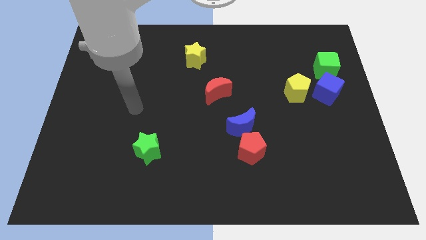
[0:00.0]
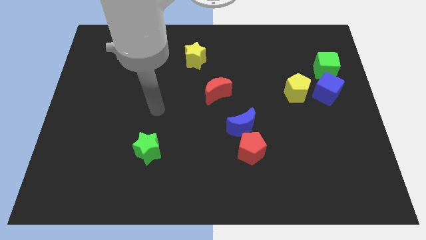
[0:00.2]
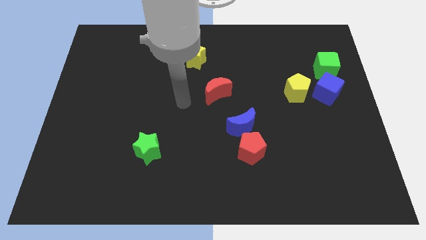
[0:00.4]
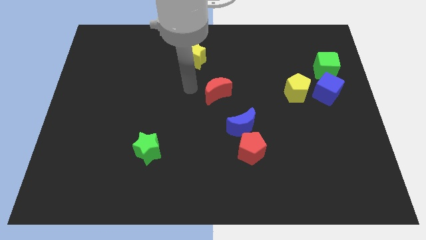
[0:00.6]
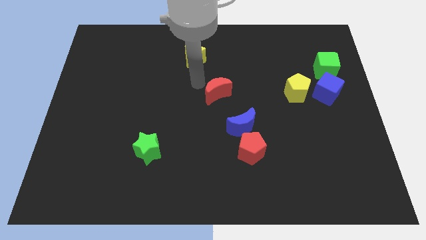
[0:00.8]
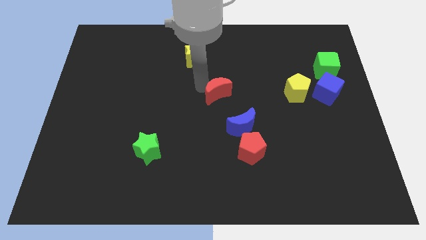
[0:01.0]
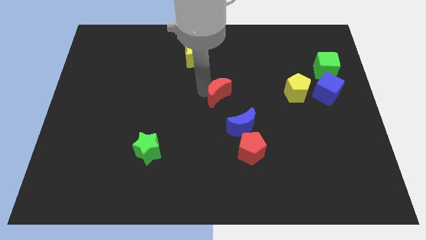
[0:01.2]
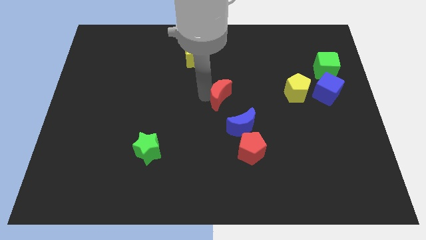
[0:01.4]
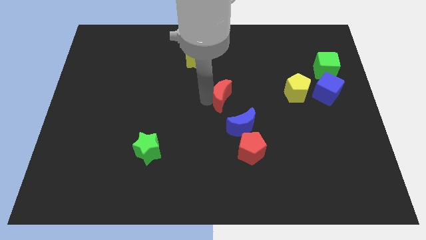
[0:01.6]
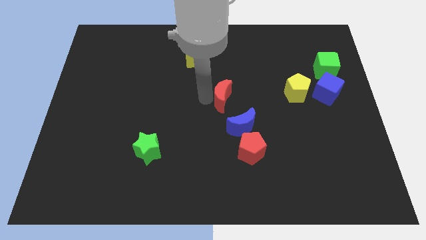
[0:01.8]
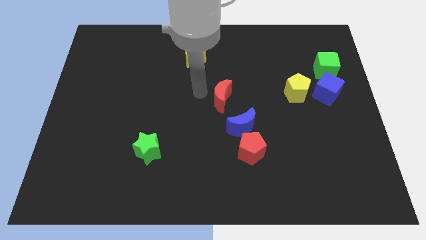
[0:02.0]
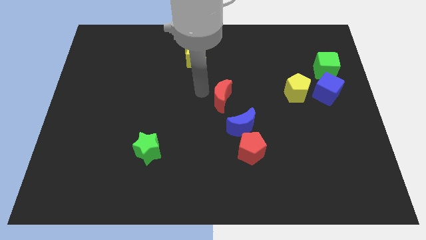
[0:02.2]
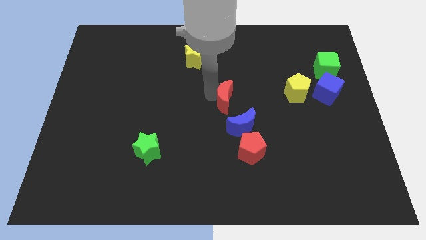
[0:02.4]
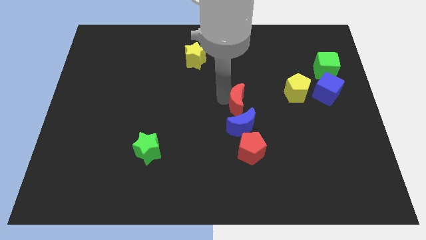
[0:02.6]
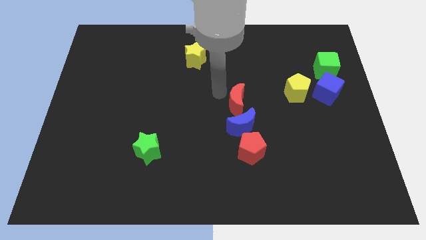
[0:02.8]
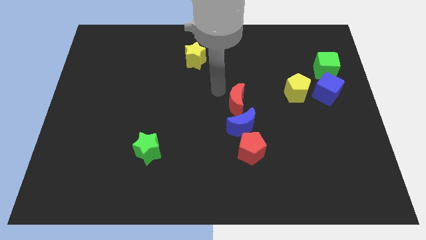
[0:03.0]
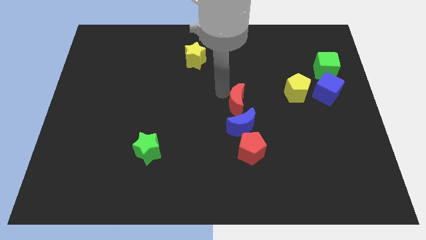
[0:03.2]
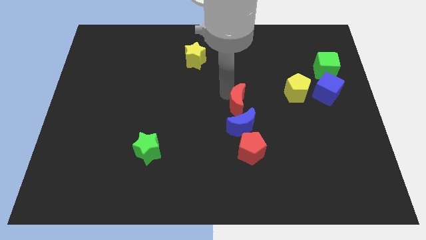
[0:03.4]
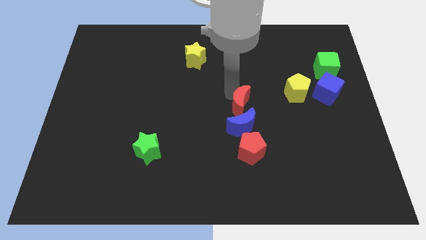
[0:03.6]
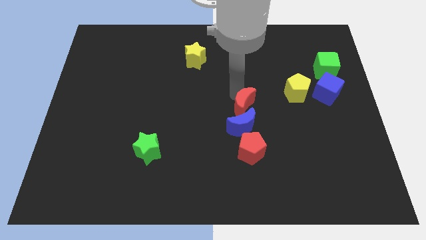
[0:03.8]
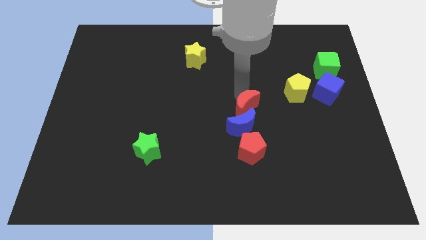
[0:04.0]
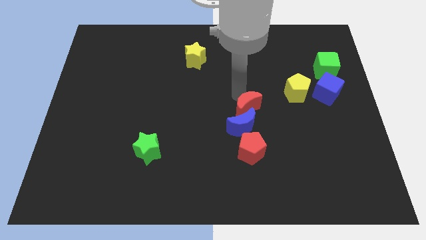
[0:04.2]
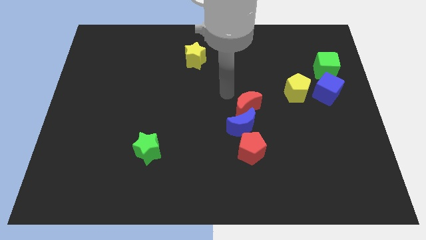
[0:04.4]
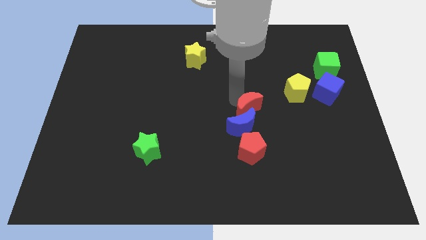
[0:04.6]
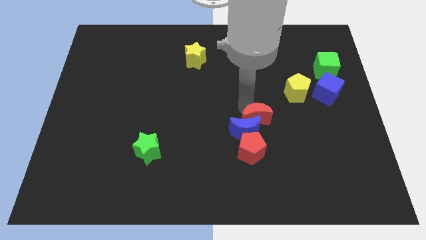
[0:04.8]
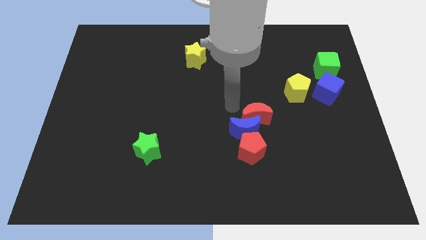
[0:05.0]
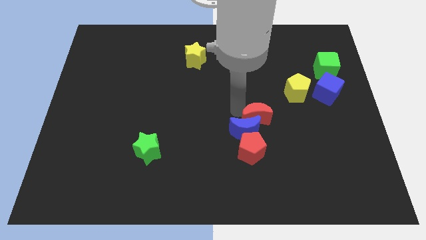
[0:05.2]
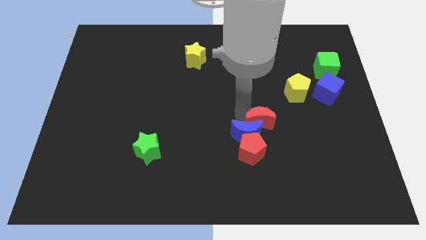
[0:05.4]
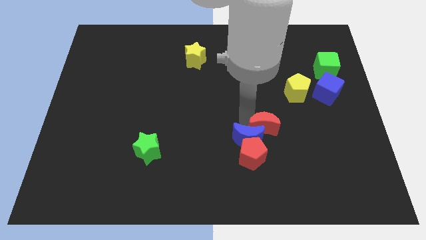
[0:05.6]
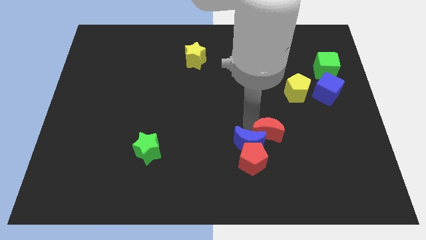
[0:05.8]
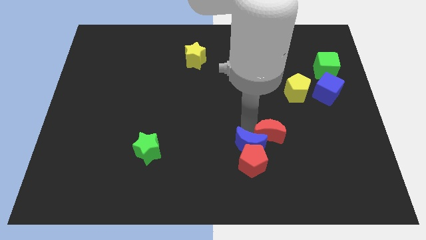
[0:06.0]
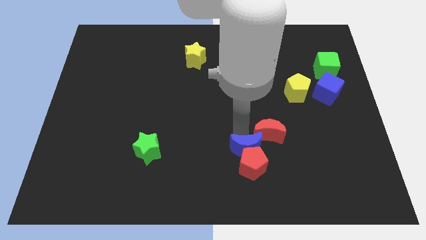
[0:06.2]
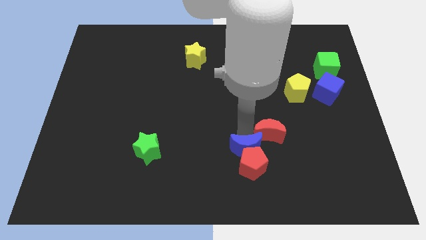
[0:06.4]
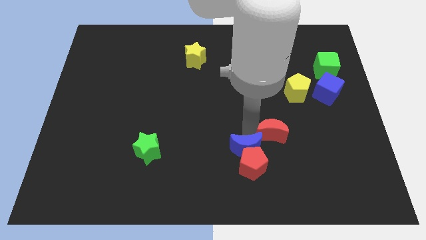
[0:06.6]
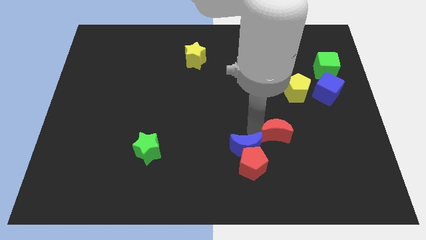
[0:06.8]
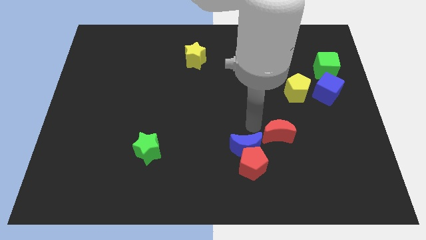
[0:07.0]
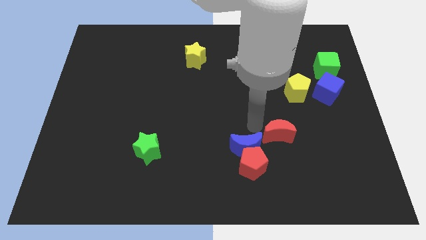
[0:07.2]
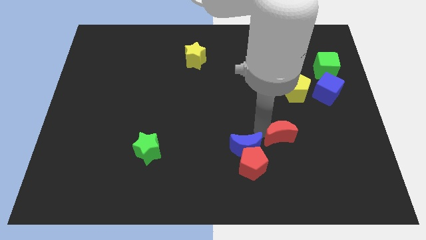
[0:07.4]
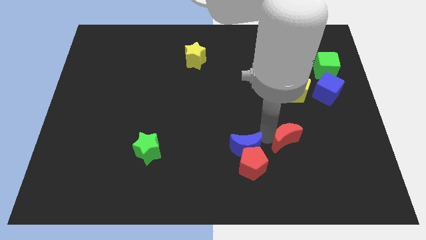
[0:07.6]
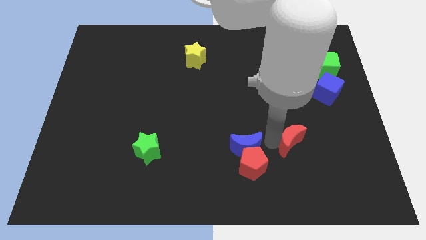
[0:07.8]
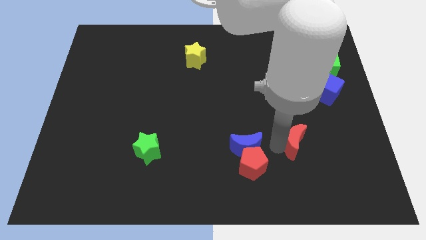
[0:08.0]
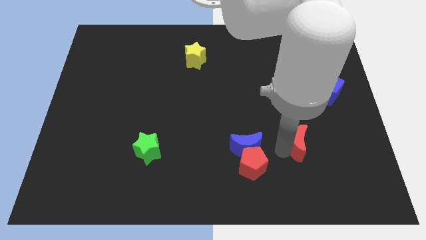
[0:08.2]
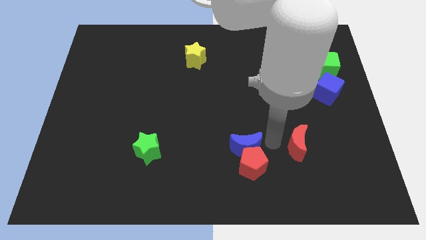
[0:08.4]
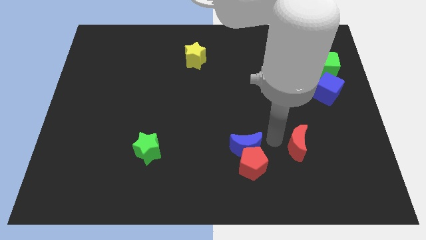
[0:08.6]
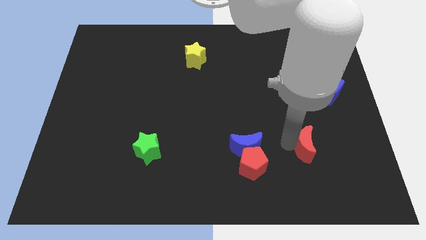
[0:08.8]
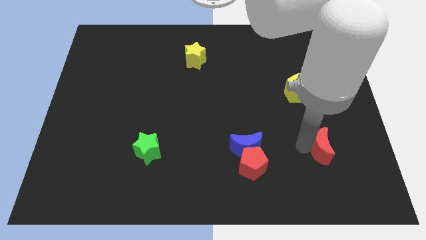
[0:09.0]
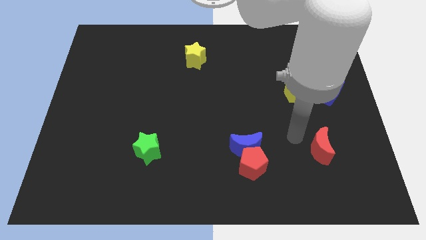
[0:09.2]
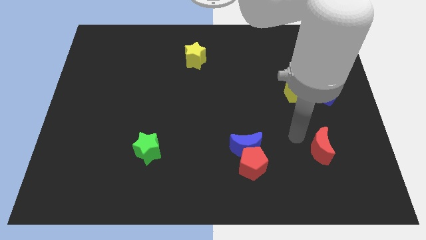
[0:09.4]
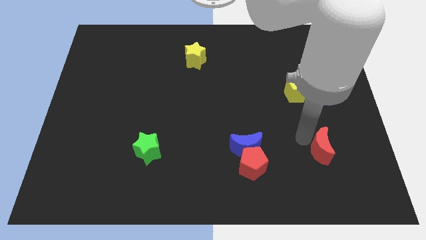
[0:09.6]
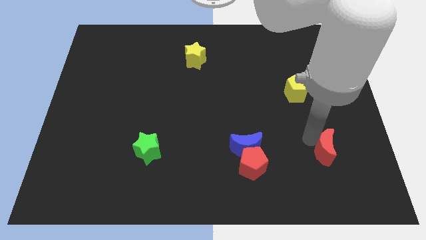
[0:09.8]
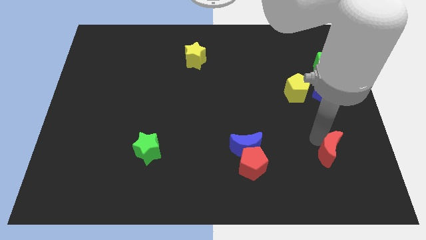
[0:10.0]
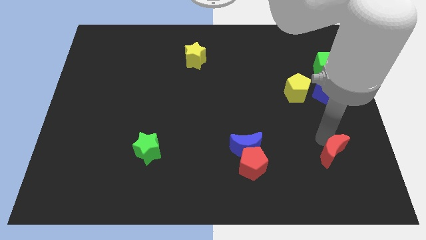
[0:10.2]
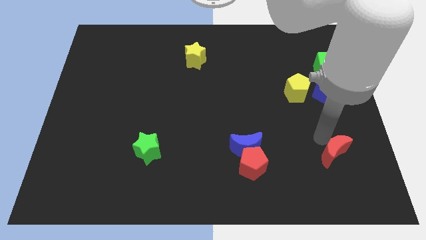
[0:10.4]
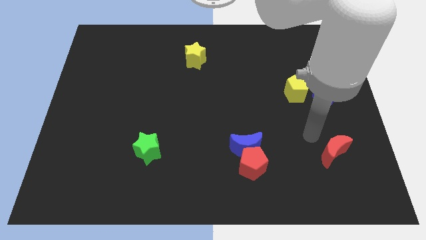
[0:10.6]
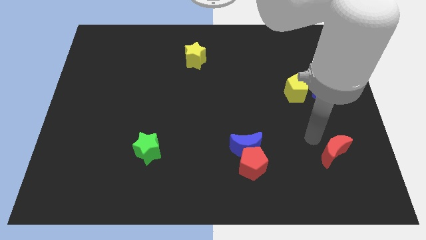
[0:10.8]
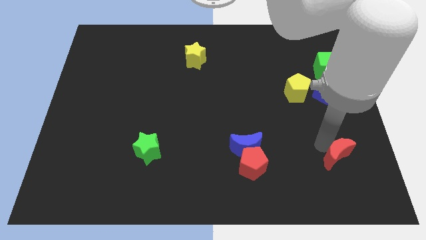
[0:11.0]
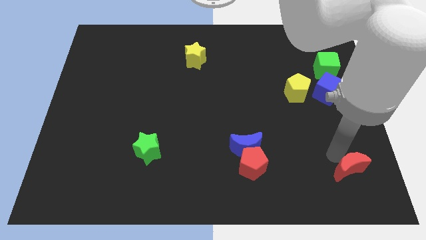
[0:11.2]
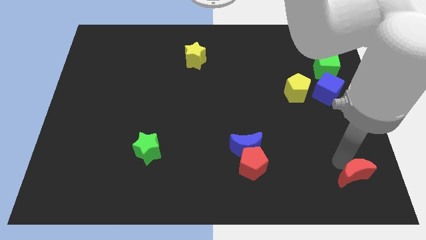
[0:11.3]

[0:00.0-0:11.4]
put the red moon to the bottom right of the board

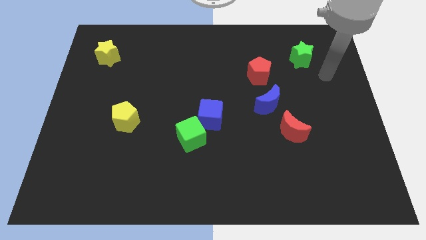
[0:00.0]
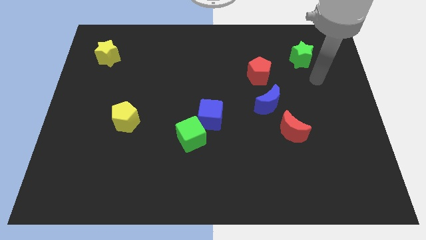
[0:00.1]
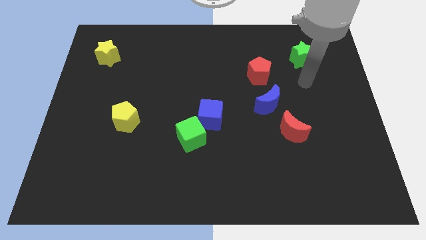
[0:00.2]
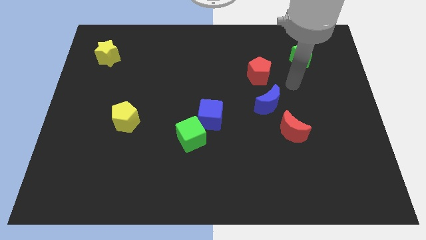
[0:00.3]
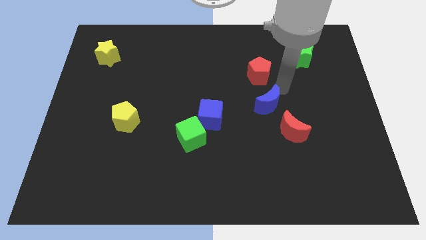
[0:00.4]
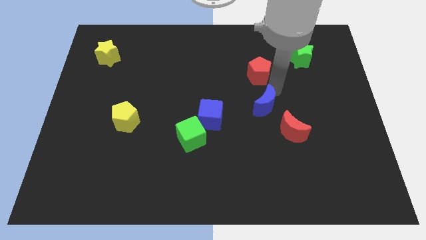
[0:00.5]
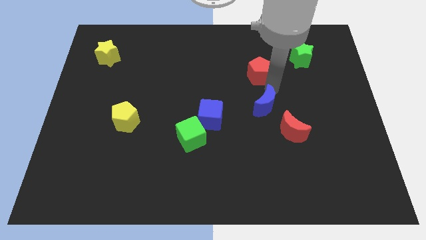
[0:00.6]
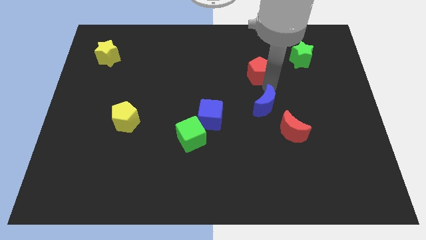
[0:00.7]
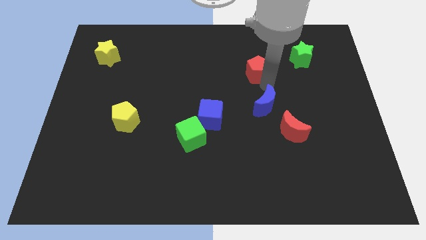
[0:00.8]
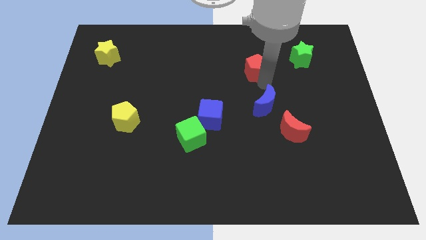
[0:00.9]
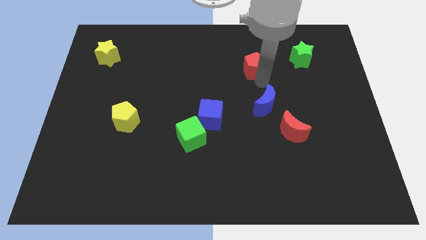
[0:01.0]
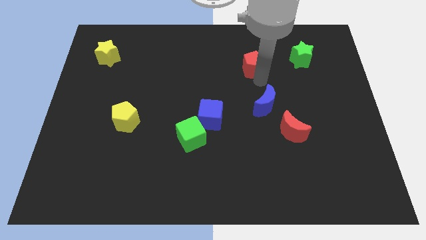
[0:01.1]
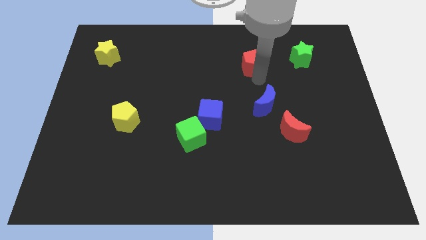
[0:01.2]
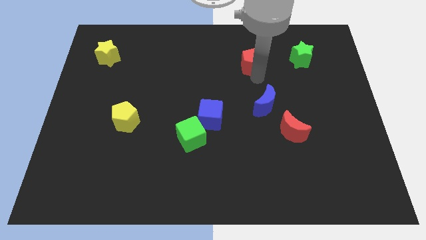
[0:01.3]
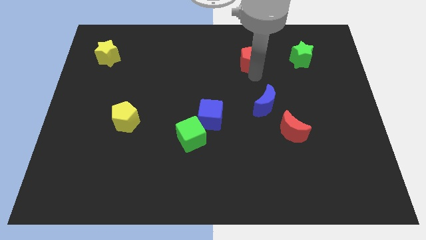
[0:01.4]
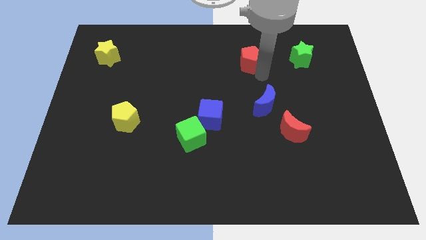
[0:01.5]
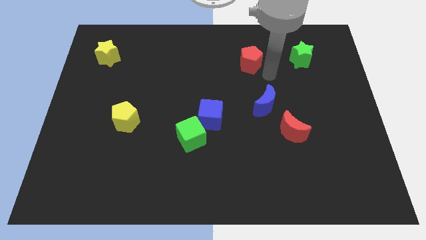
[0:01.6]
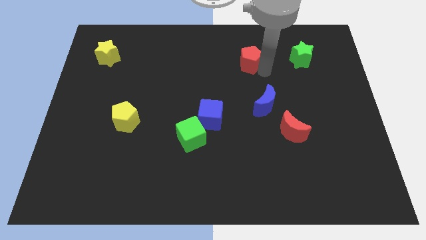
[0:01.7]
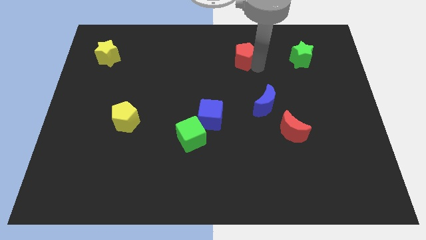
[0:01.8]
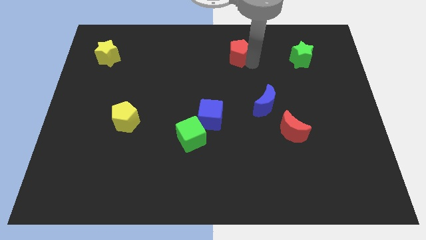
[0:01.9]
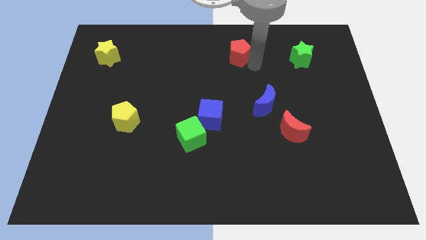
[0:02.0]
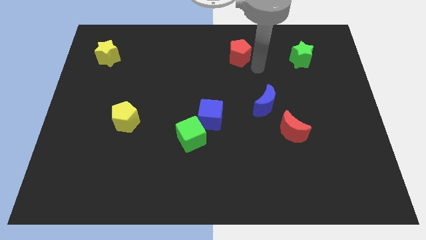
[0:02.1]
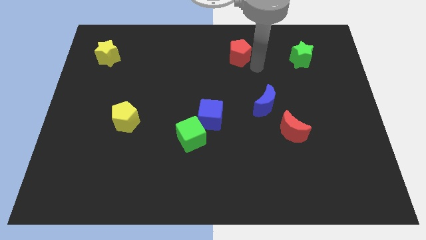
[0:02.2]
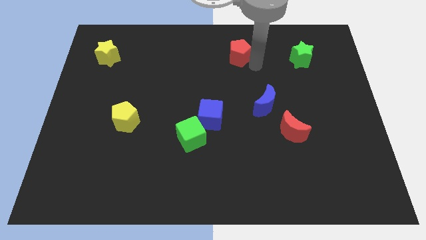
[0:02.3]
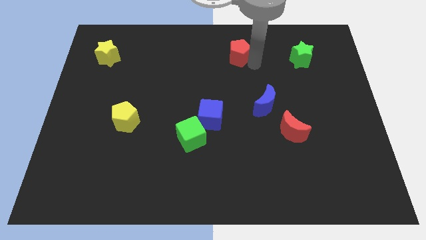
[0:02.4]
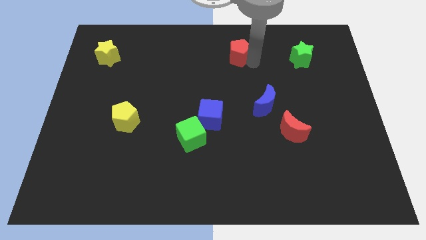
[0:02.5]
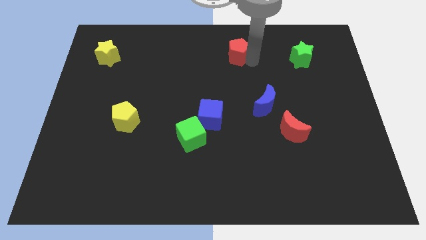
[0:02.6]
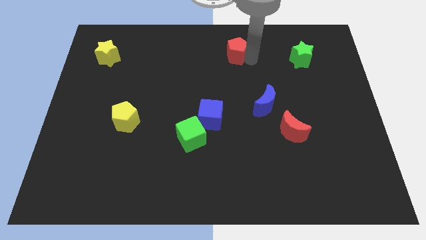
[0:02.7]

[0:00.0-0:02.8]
move the red pentagon to the towards your base
